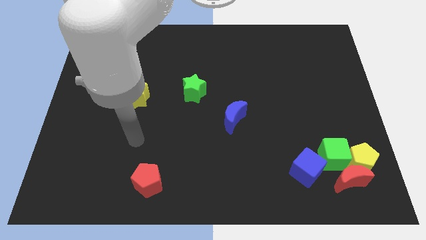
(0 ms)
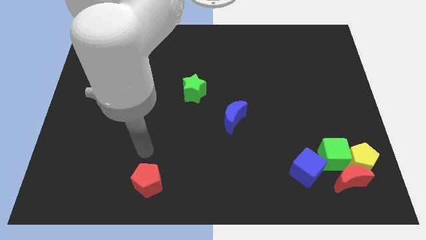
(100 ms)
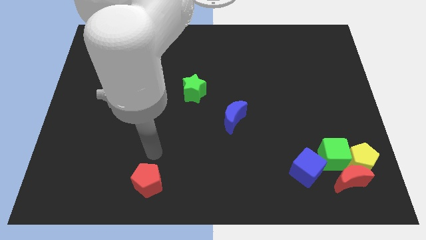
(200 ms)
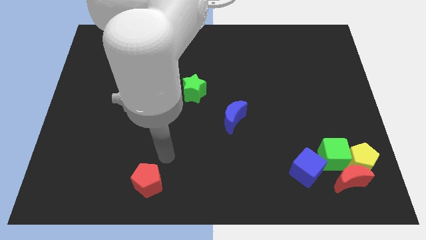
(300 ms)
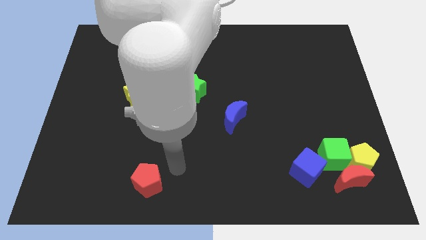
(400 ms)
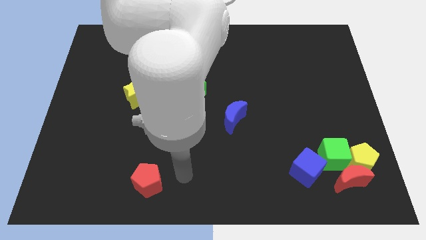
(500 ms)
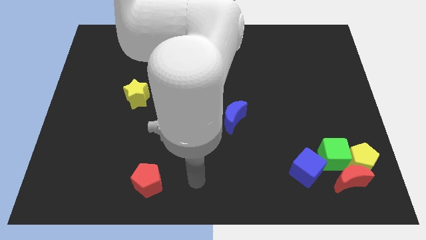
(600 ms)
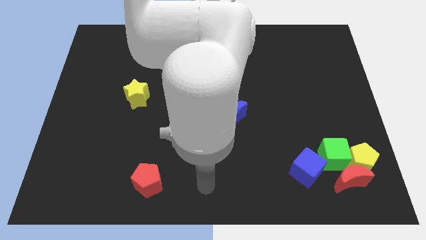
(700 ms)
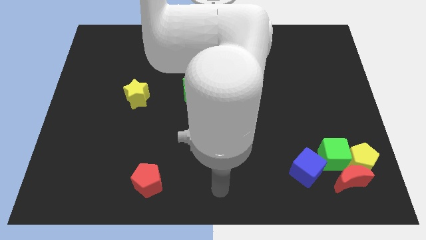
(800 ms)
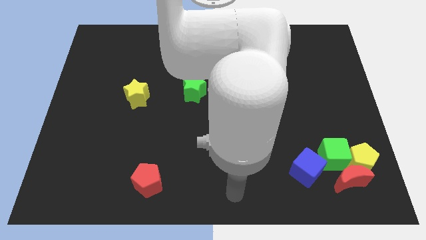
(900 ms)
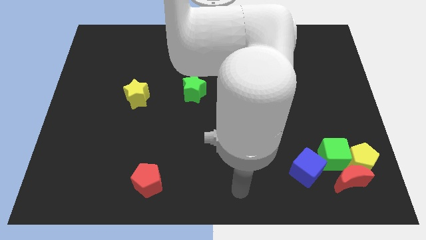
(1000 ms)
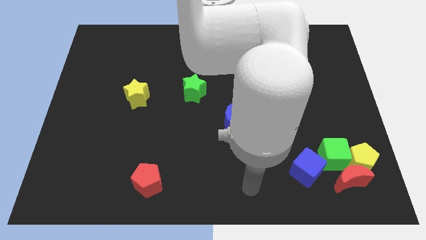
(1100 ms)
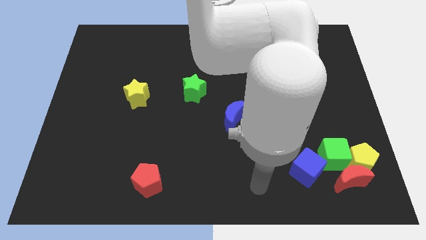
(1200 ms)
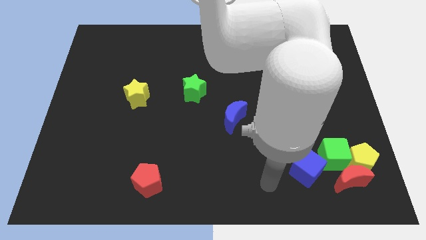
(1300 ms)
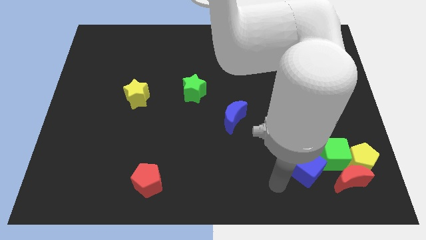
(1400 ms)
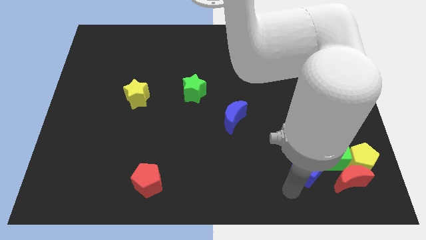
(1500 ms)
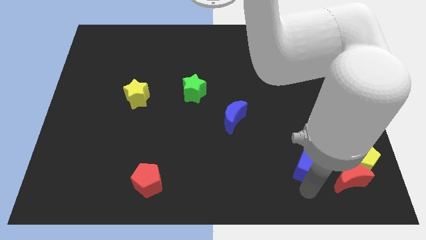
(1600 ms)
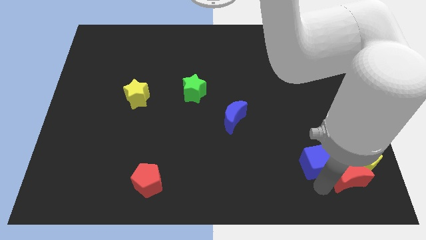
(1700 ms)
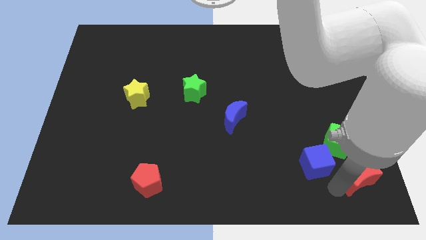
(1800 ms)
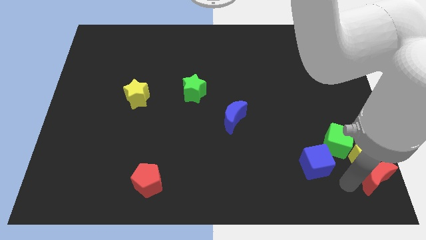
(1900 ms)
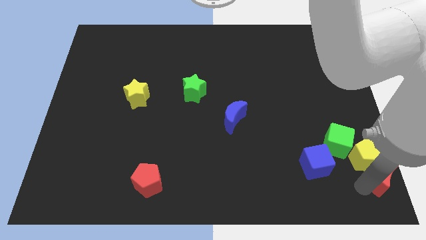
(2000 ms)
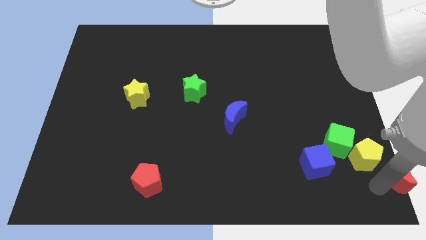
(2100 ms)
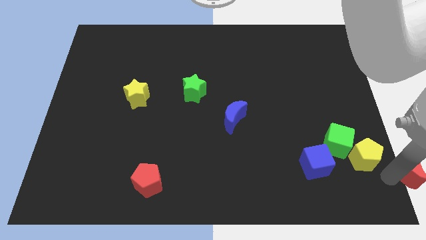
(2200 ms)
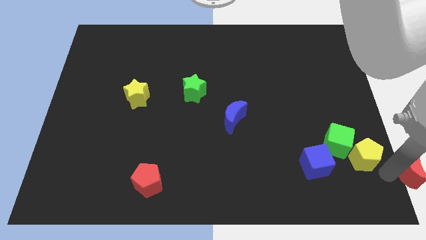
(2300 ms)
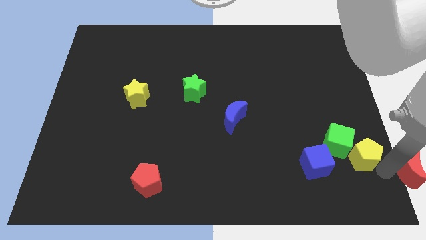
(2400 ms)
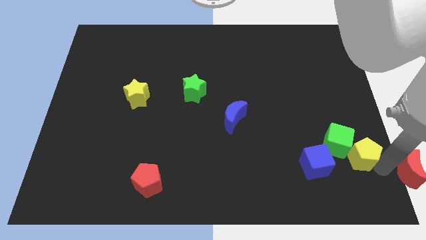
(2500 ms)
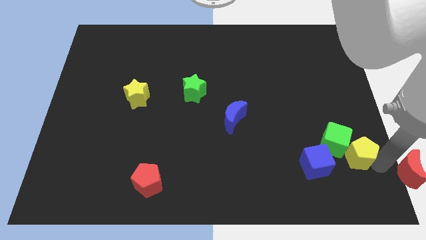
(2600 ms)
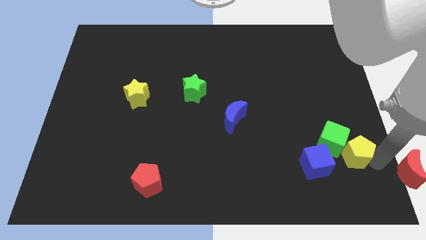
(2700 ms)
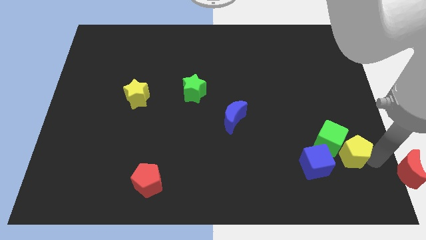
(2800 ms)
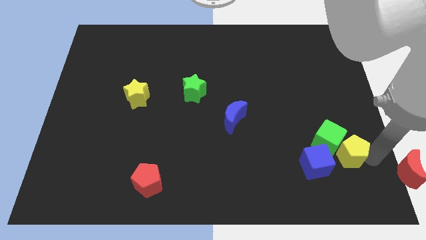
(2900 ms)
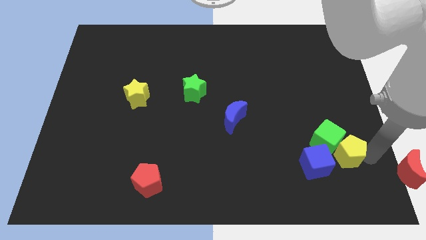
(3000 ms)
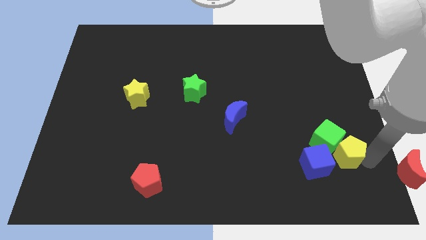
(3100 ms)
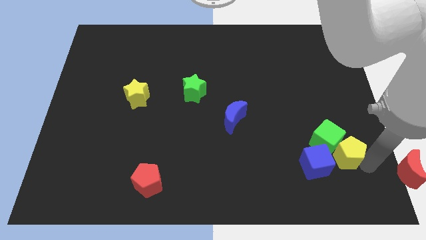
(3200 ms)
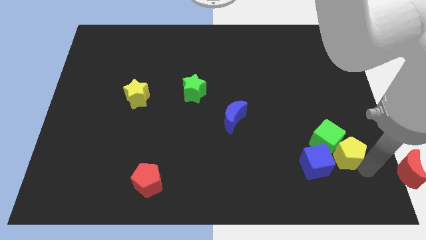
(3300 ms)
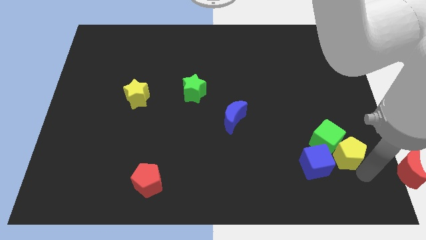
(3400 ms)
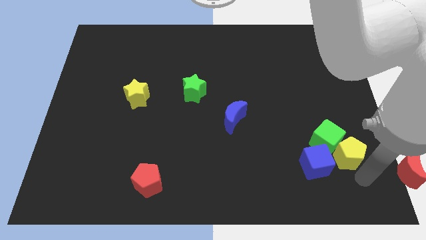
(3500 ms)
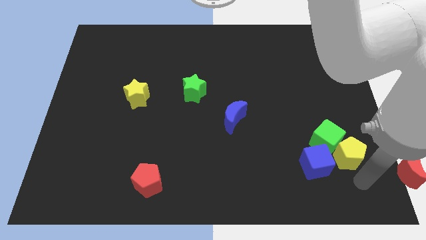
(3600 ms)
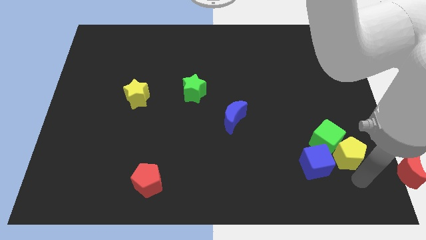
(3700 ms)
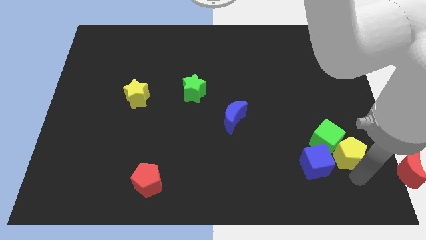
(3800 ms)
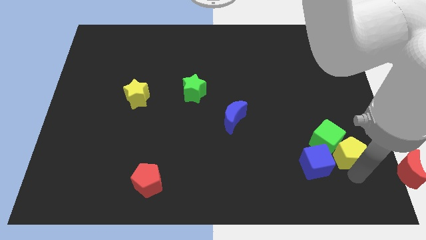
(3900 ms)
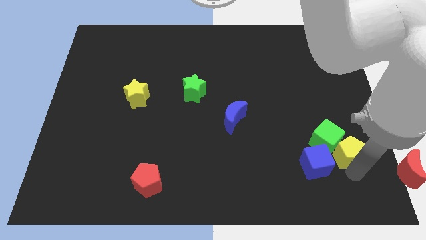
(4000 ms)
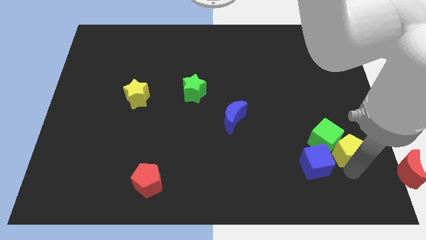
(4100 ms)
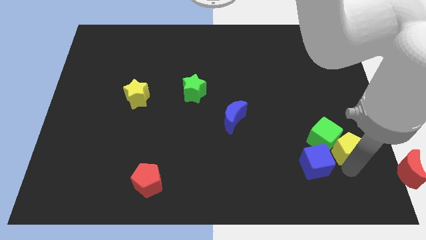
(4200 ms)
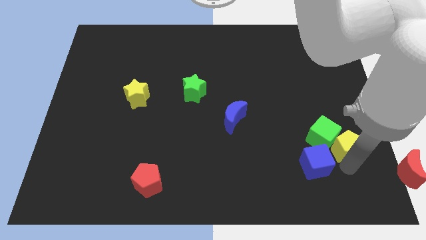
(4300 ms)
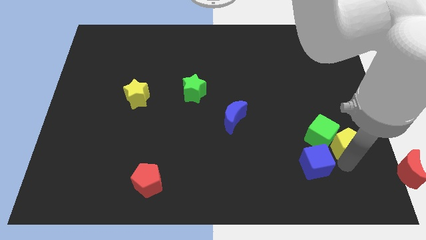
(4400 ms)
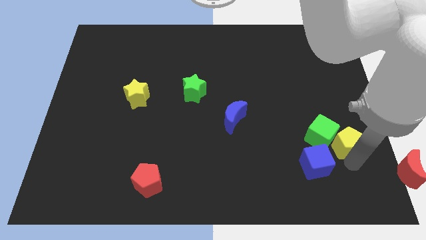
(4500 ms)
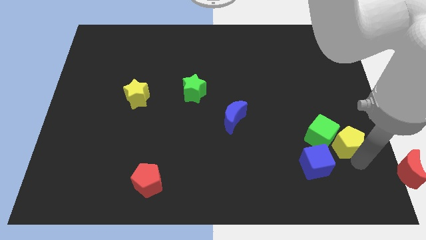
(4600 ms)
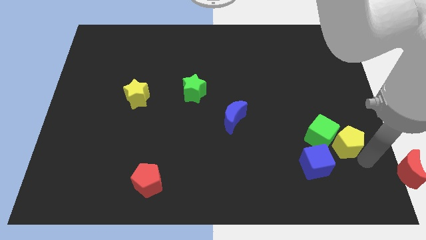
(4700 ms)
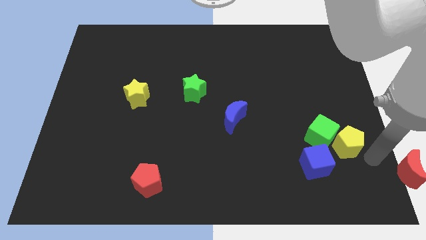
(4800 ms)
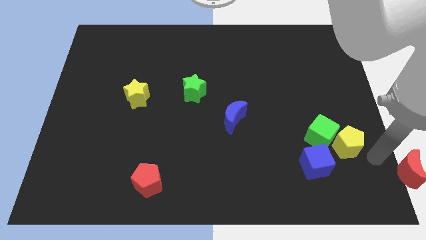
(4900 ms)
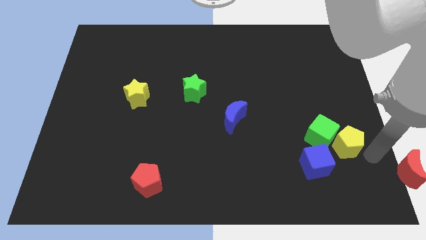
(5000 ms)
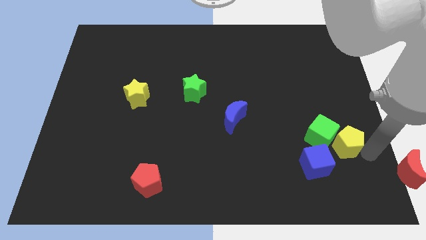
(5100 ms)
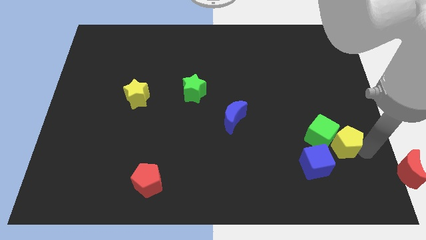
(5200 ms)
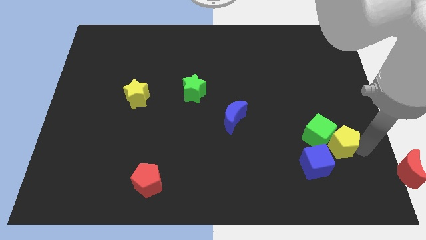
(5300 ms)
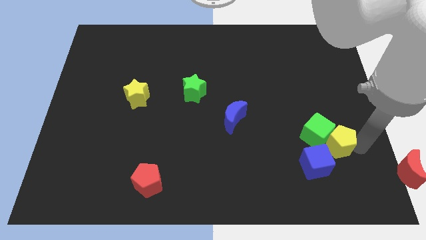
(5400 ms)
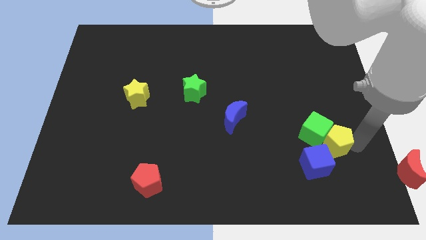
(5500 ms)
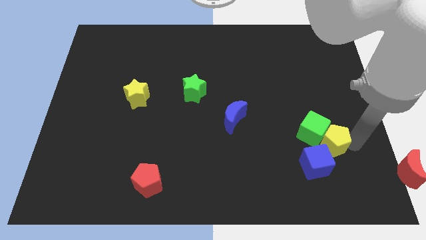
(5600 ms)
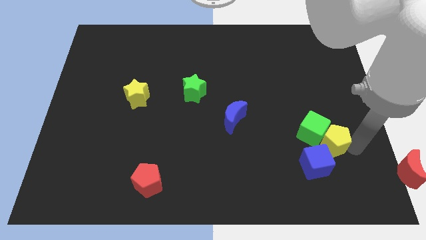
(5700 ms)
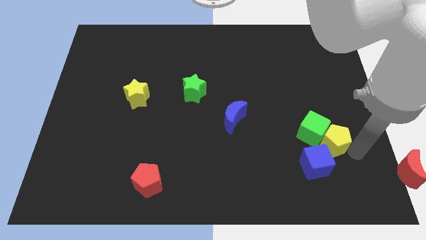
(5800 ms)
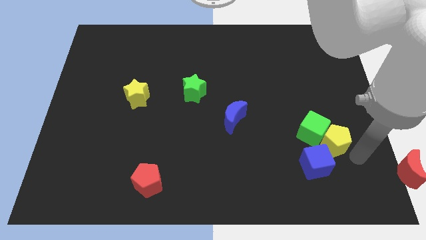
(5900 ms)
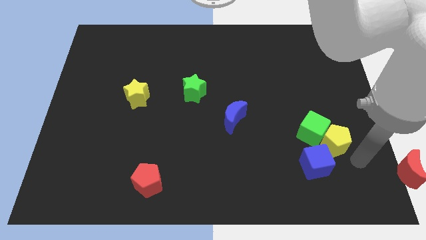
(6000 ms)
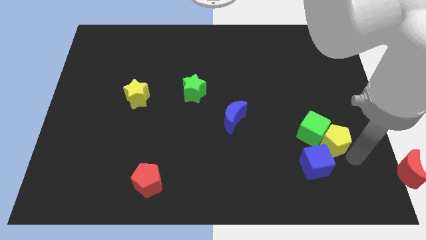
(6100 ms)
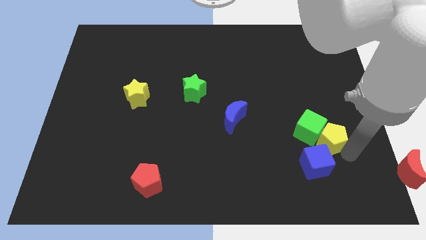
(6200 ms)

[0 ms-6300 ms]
slightly move the yellow pentagon up and to the left

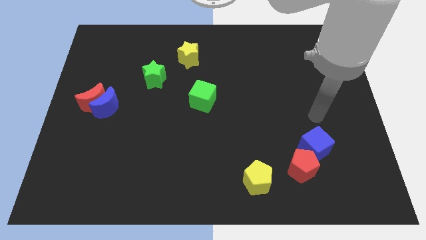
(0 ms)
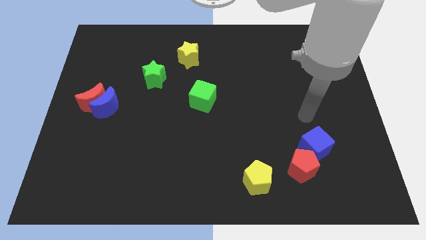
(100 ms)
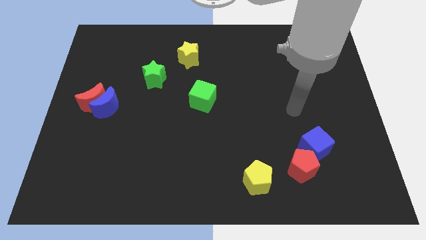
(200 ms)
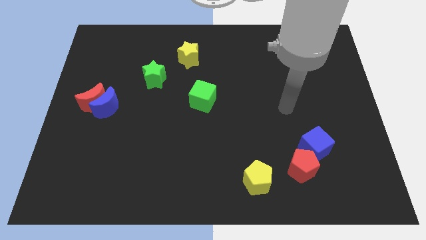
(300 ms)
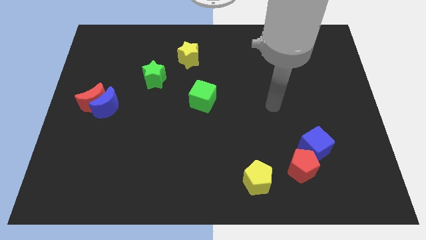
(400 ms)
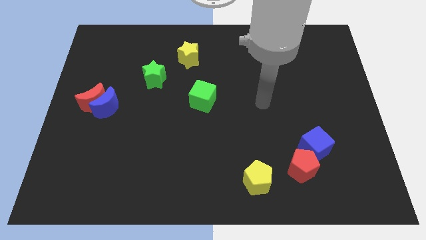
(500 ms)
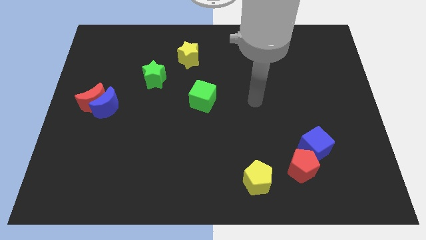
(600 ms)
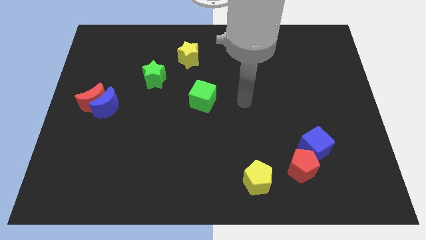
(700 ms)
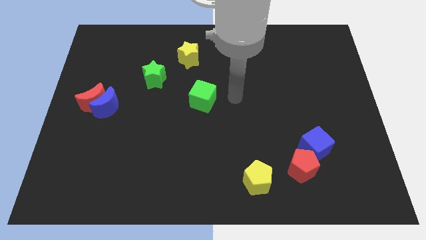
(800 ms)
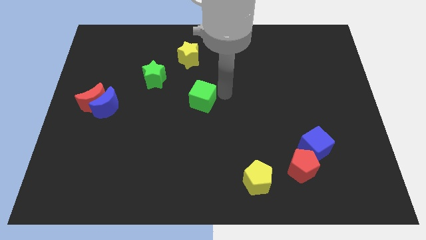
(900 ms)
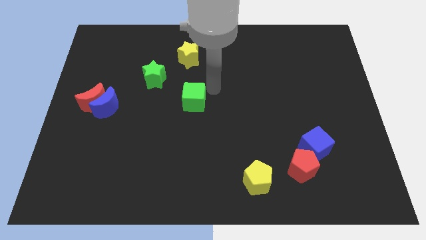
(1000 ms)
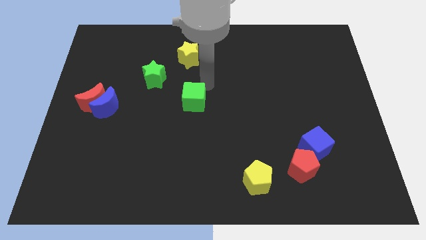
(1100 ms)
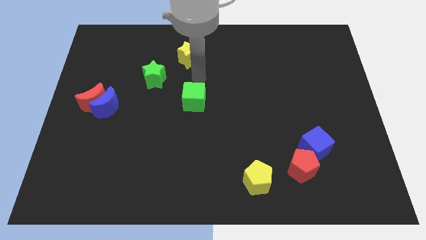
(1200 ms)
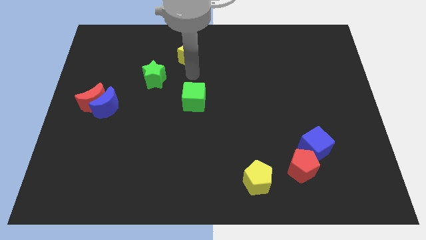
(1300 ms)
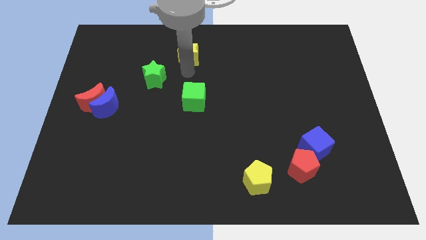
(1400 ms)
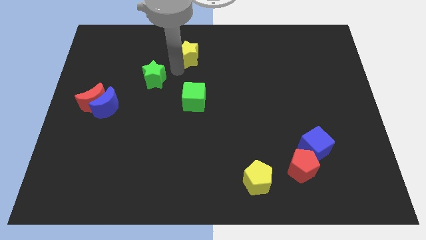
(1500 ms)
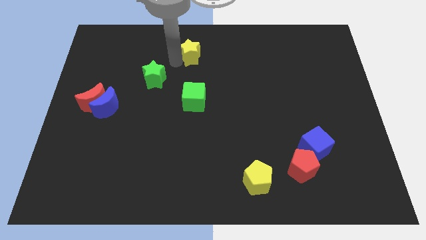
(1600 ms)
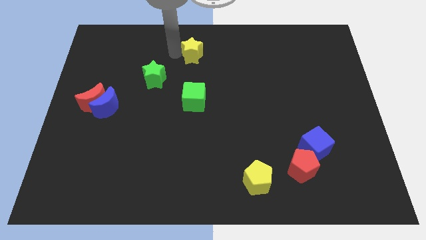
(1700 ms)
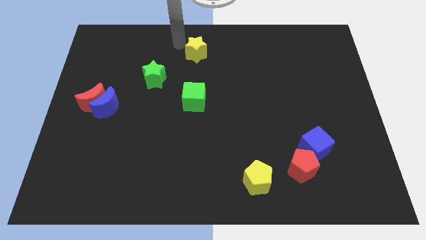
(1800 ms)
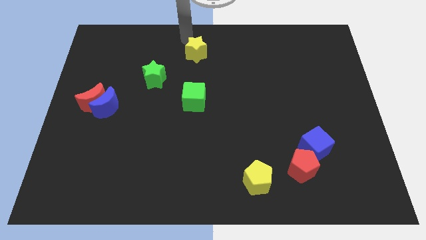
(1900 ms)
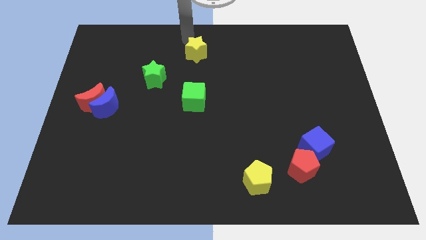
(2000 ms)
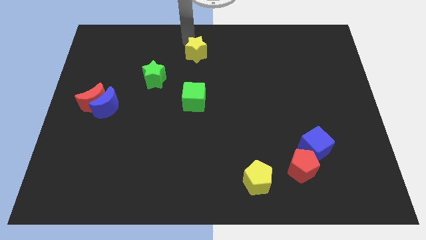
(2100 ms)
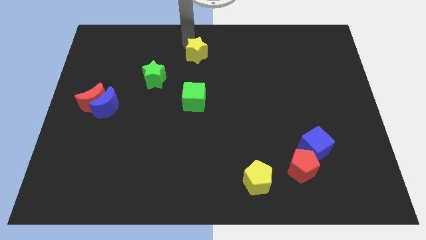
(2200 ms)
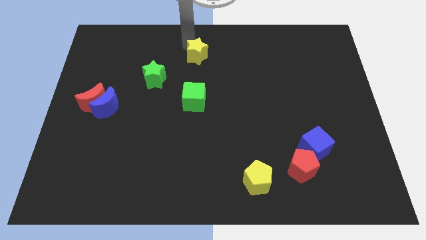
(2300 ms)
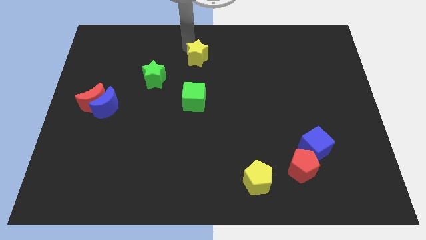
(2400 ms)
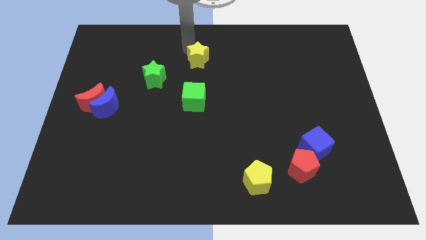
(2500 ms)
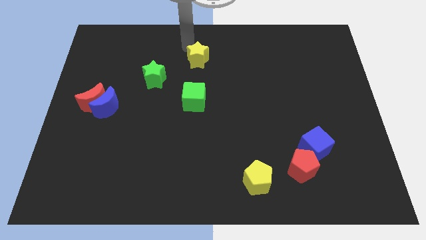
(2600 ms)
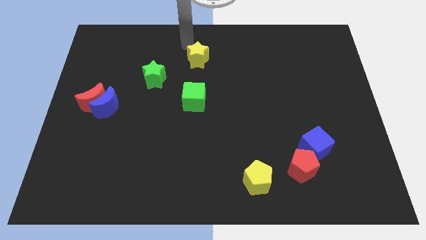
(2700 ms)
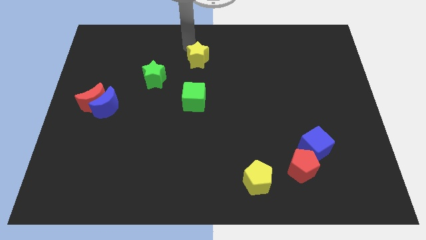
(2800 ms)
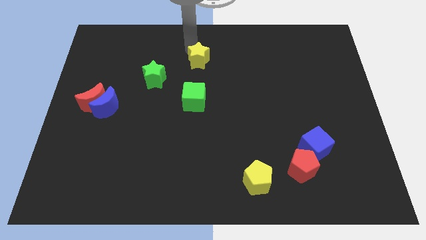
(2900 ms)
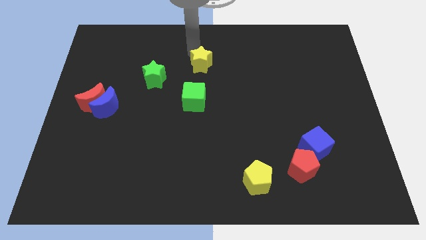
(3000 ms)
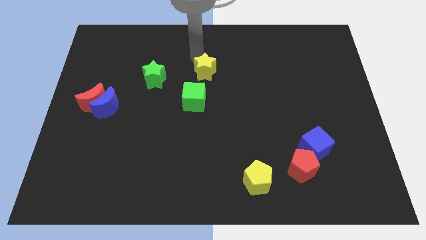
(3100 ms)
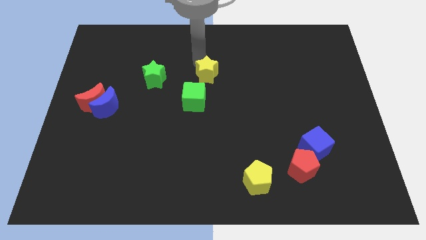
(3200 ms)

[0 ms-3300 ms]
slightly push the yellow star downwards and then right
